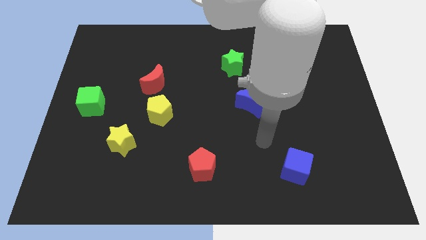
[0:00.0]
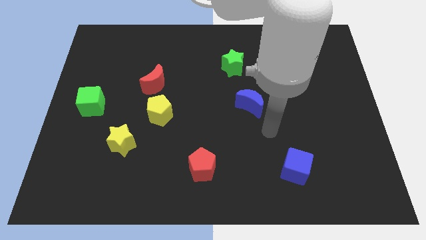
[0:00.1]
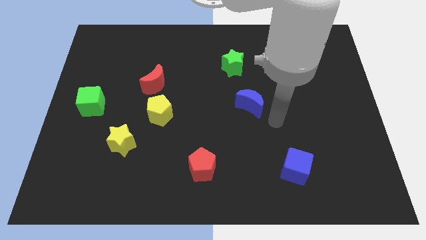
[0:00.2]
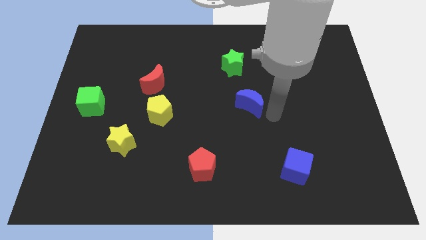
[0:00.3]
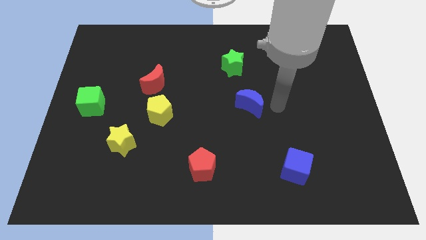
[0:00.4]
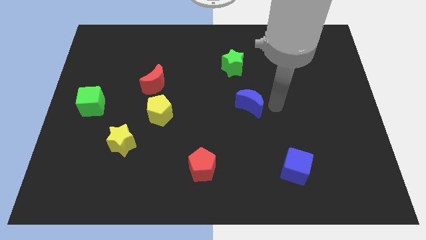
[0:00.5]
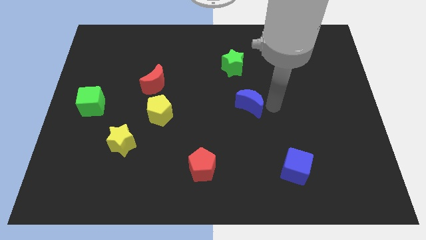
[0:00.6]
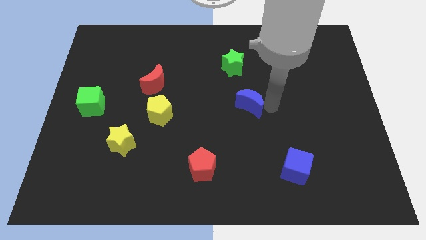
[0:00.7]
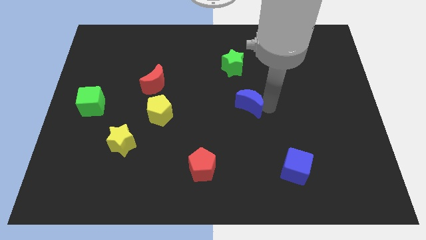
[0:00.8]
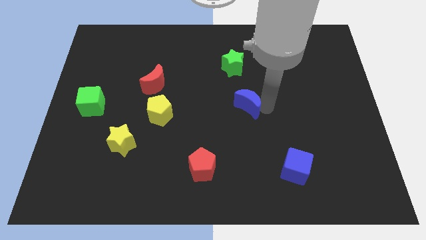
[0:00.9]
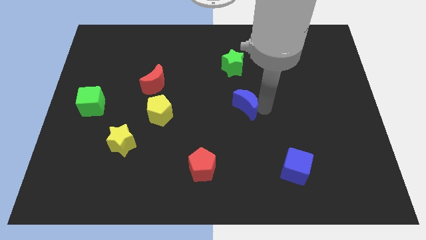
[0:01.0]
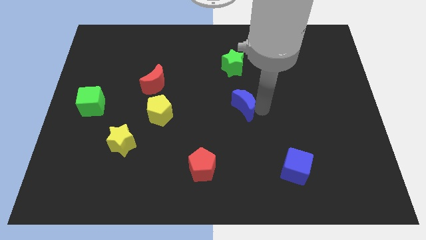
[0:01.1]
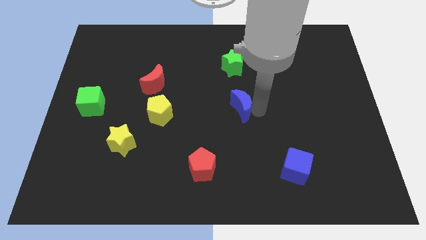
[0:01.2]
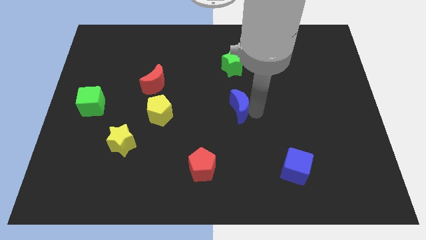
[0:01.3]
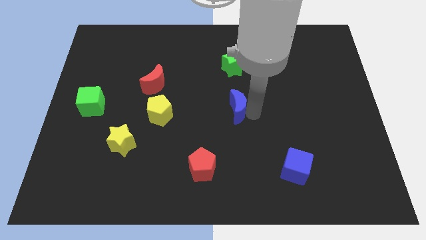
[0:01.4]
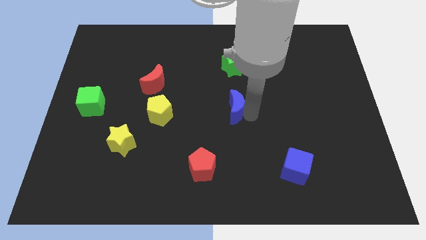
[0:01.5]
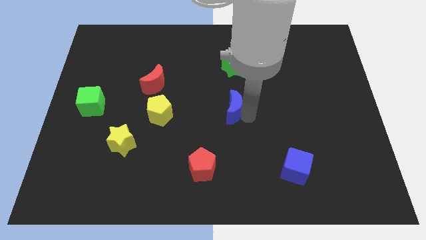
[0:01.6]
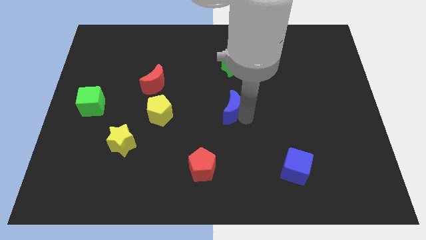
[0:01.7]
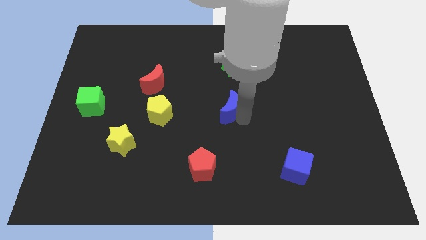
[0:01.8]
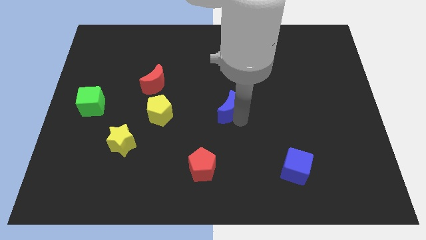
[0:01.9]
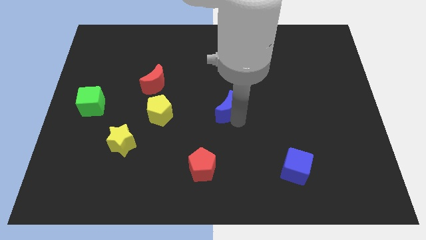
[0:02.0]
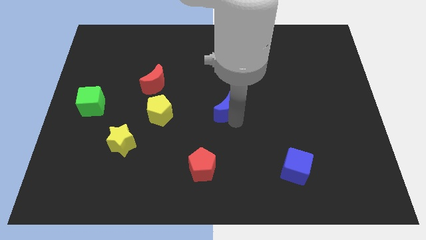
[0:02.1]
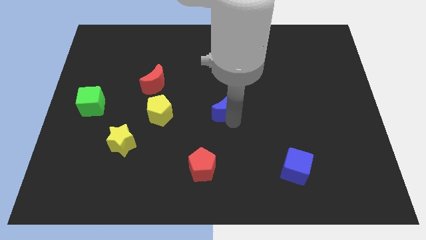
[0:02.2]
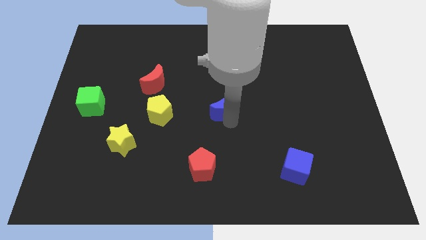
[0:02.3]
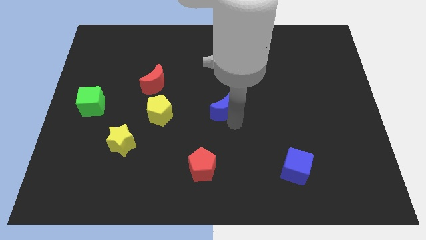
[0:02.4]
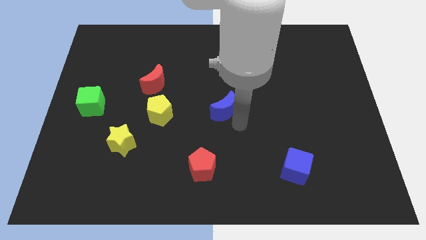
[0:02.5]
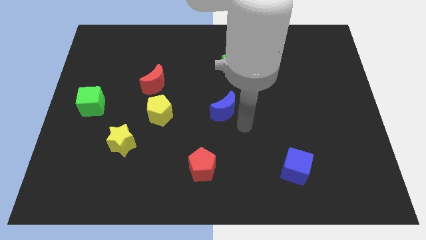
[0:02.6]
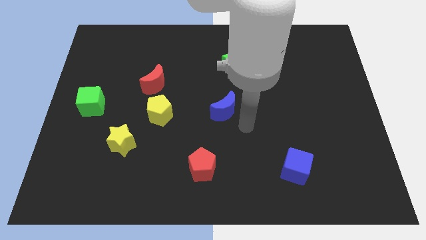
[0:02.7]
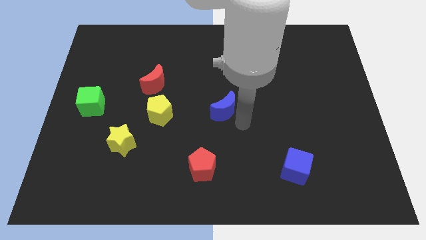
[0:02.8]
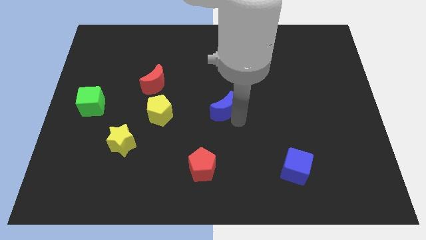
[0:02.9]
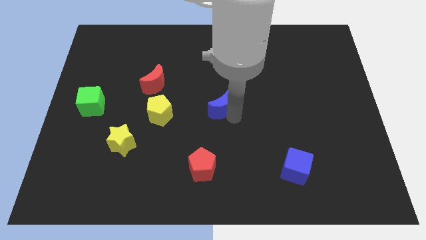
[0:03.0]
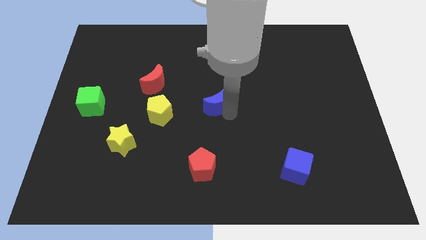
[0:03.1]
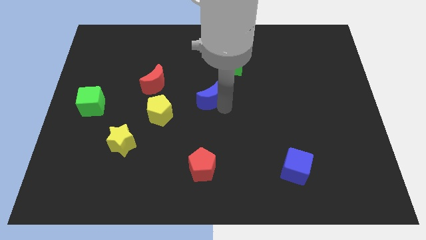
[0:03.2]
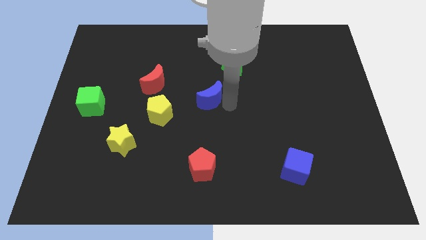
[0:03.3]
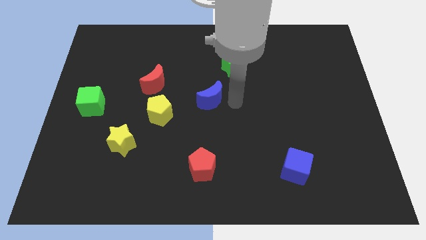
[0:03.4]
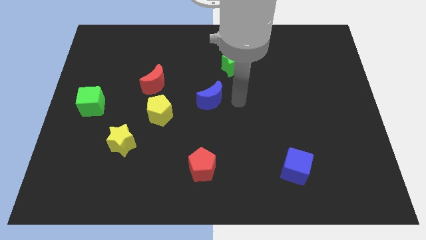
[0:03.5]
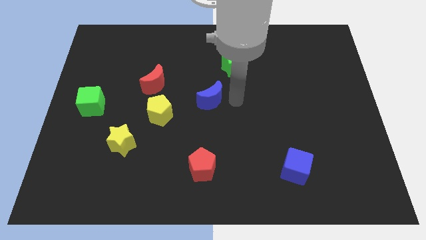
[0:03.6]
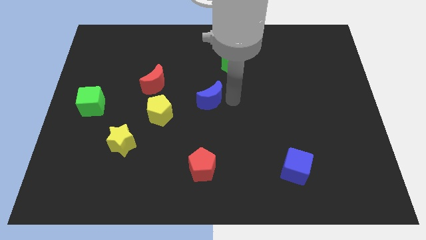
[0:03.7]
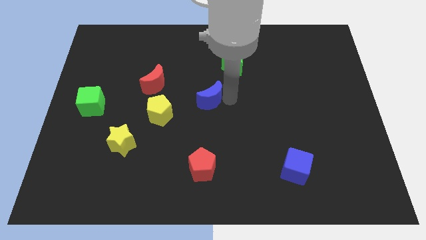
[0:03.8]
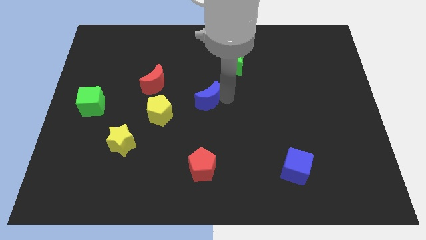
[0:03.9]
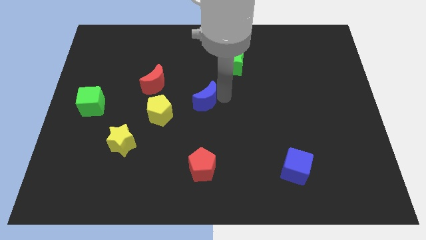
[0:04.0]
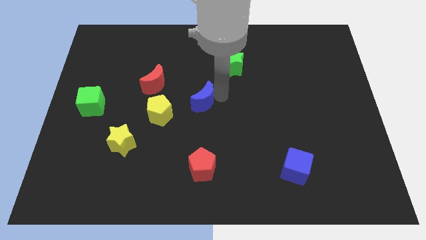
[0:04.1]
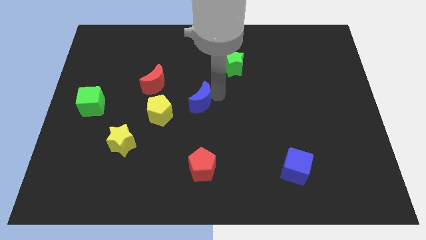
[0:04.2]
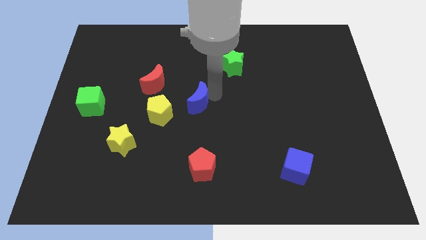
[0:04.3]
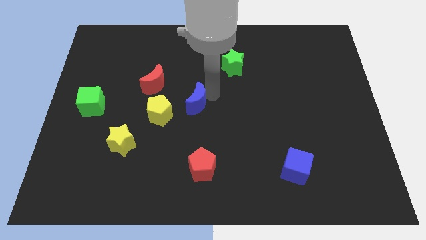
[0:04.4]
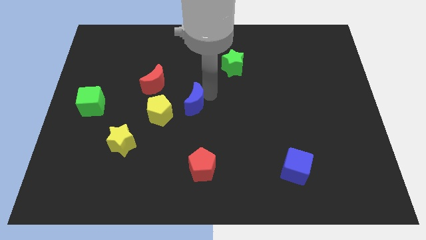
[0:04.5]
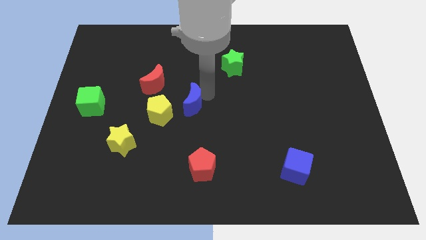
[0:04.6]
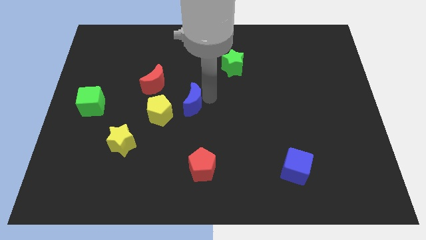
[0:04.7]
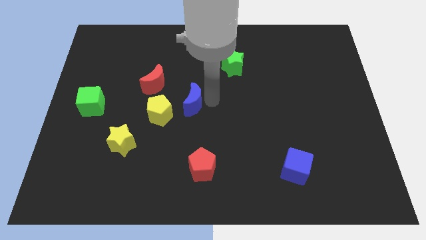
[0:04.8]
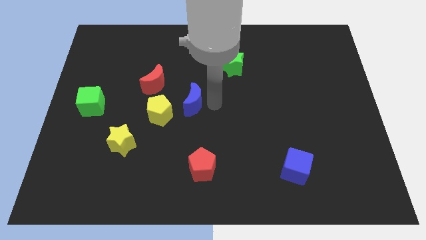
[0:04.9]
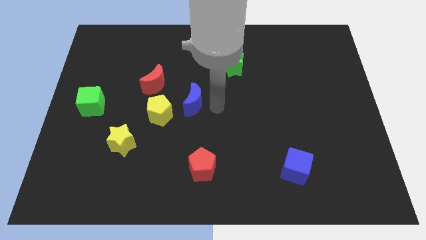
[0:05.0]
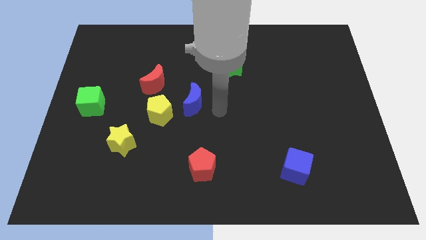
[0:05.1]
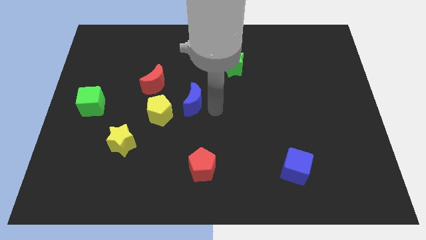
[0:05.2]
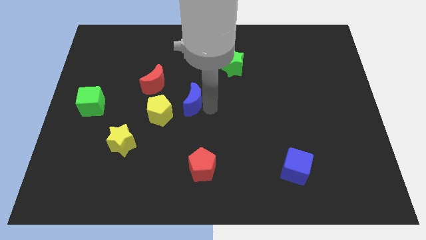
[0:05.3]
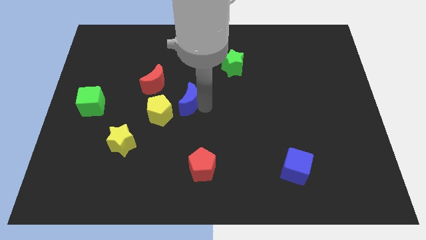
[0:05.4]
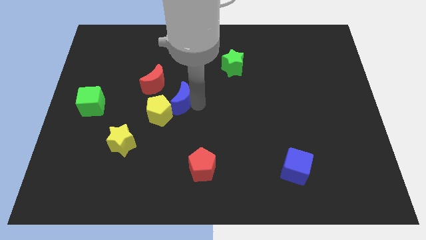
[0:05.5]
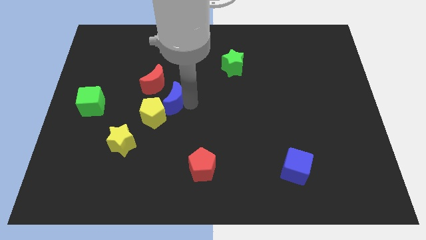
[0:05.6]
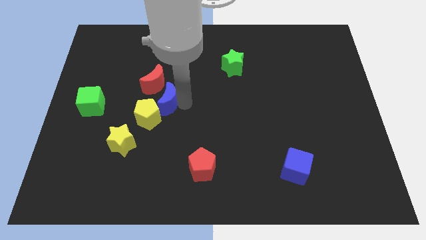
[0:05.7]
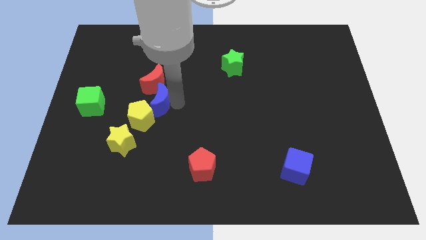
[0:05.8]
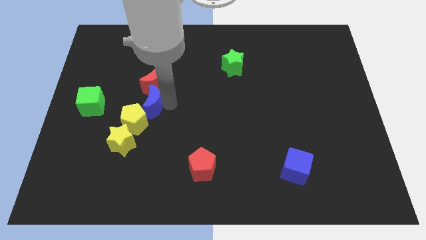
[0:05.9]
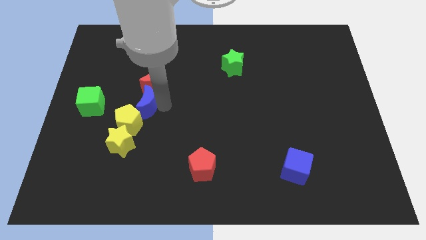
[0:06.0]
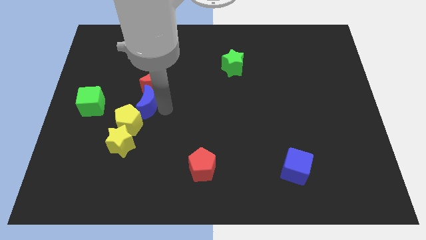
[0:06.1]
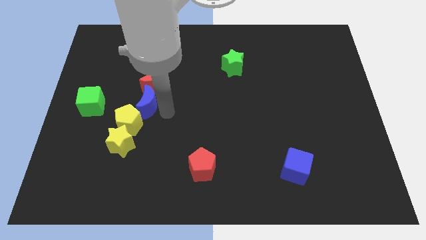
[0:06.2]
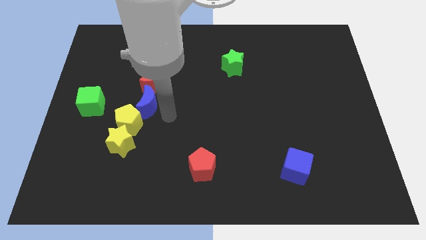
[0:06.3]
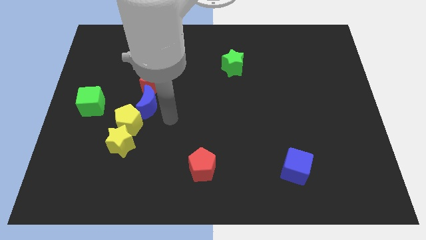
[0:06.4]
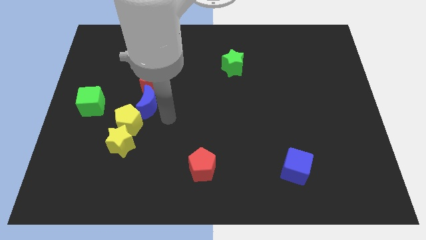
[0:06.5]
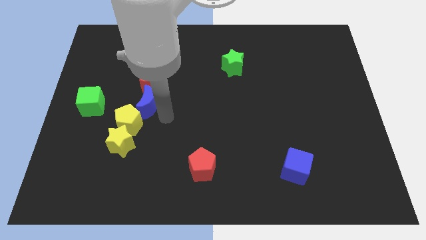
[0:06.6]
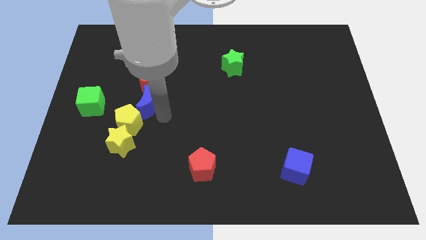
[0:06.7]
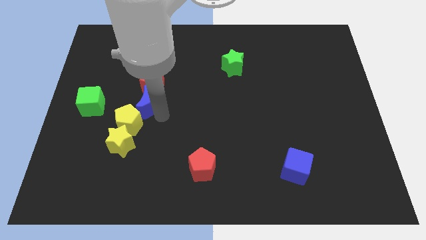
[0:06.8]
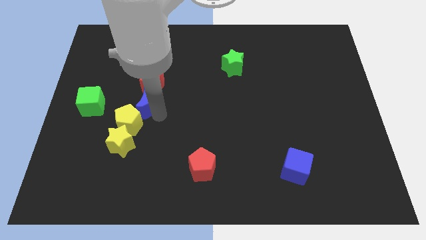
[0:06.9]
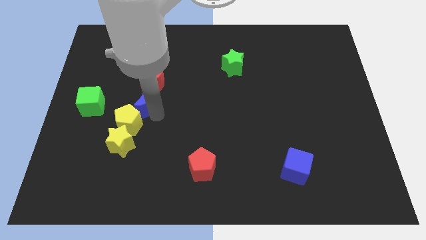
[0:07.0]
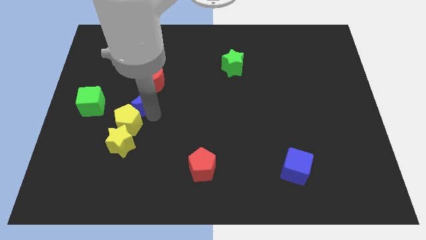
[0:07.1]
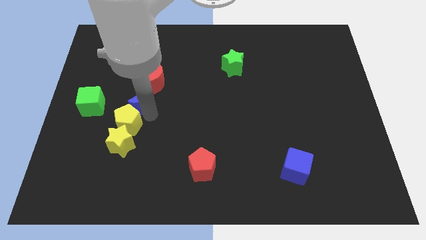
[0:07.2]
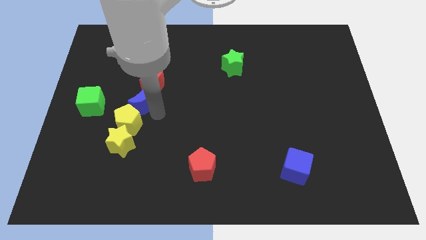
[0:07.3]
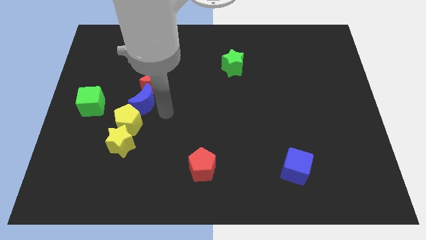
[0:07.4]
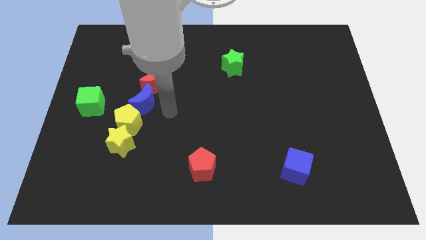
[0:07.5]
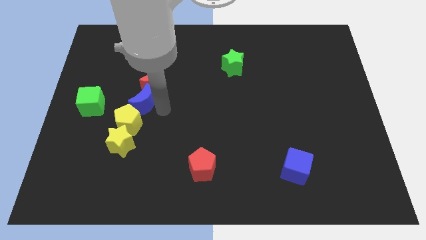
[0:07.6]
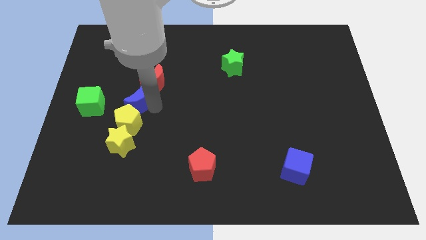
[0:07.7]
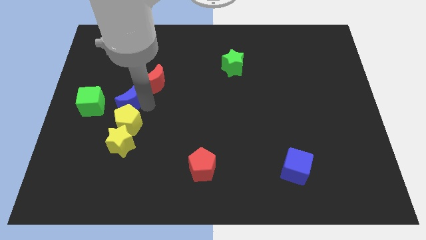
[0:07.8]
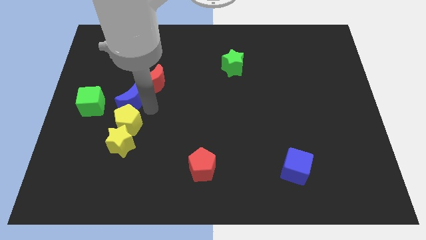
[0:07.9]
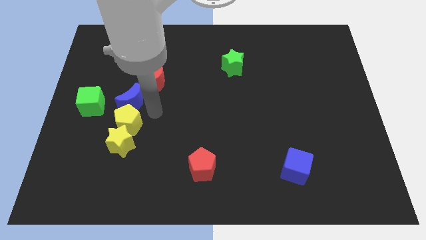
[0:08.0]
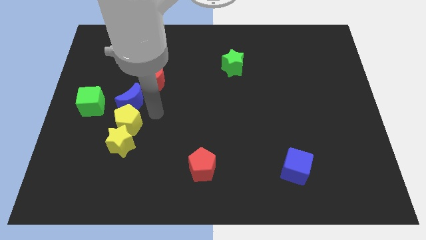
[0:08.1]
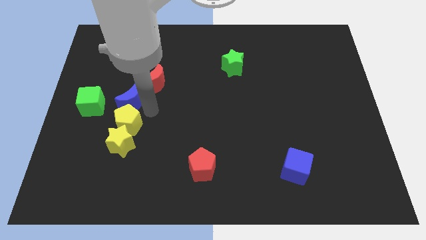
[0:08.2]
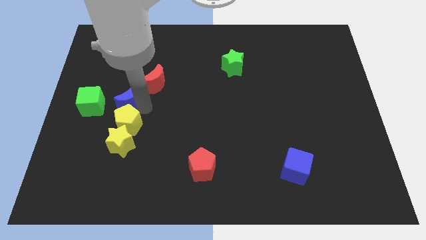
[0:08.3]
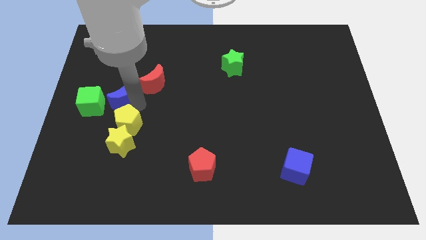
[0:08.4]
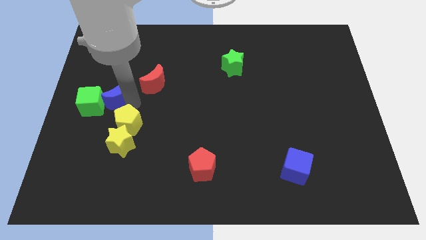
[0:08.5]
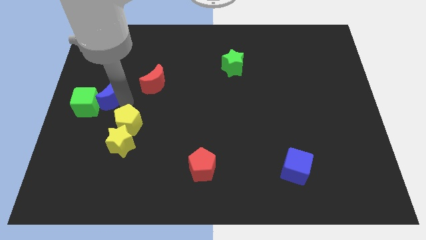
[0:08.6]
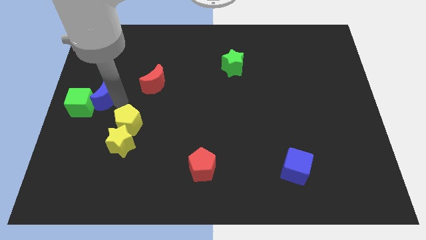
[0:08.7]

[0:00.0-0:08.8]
slide the blue moon to the center left
